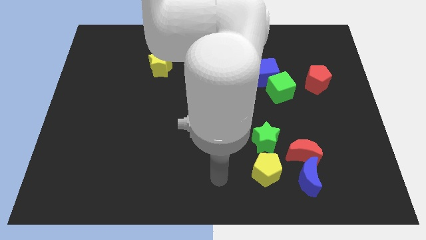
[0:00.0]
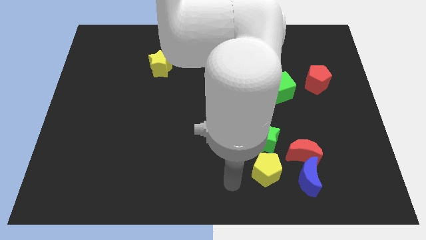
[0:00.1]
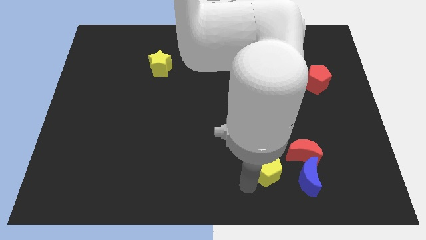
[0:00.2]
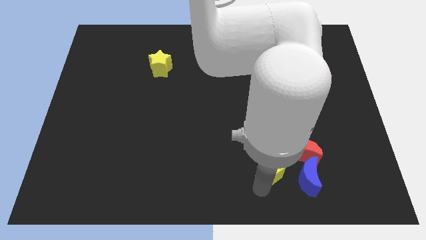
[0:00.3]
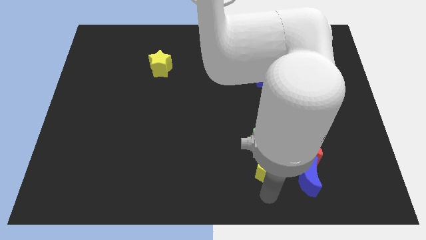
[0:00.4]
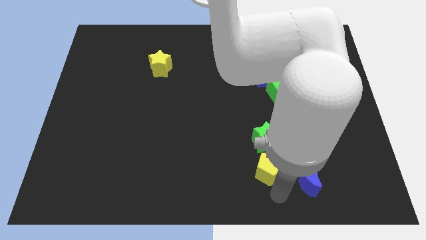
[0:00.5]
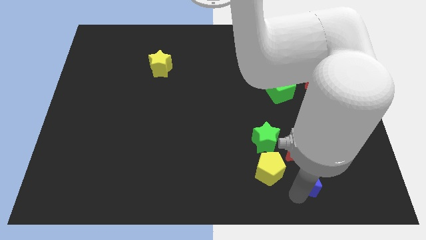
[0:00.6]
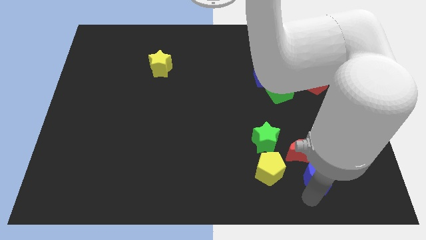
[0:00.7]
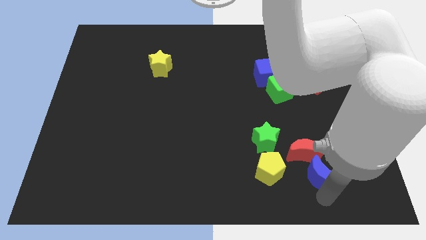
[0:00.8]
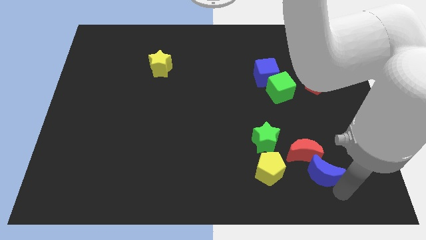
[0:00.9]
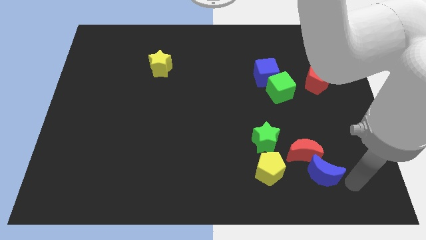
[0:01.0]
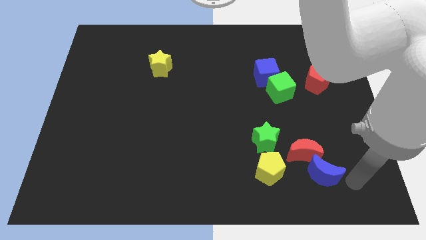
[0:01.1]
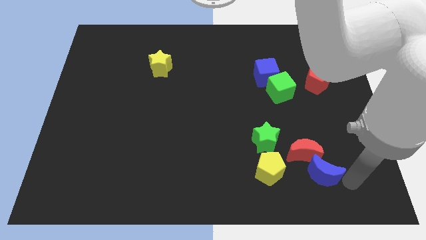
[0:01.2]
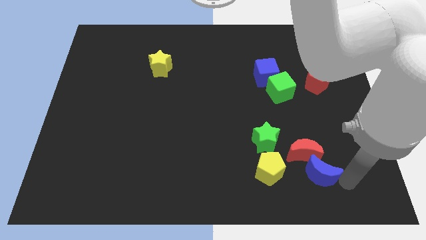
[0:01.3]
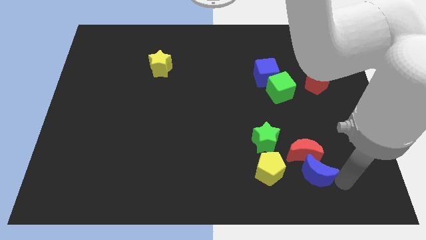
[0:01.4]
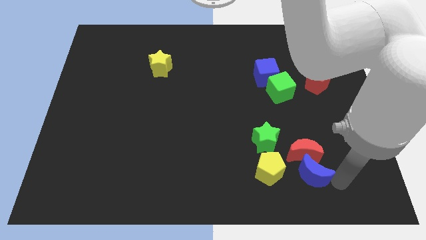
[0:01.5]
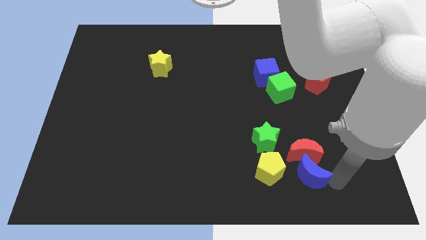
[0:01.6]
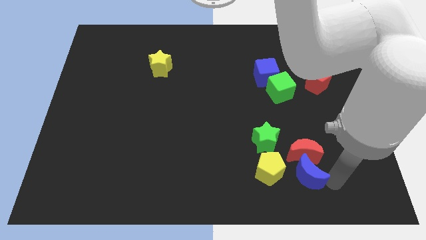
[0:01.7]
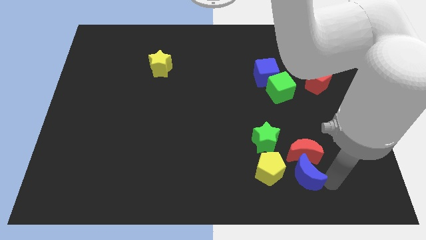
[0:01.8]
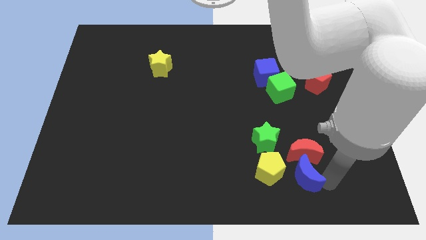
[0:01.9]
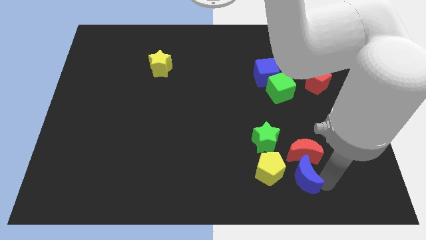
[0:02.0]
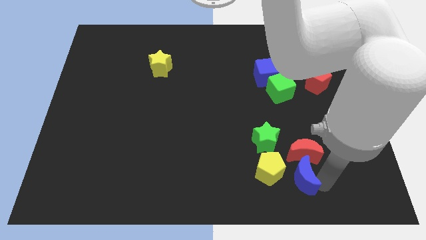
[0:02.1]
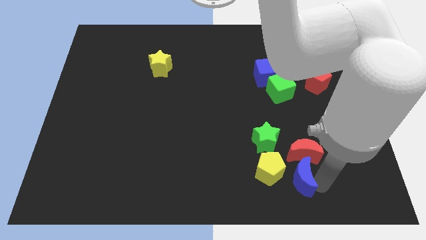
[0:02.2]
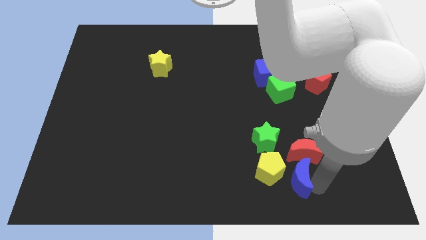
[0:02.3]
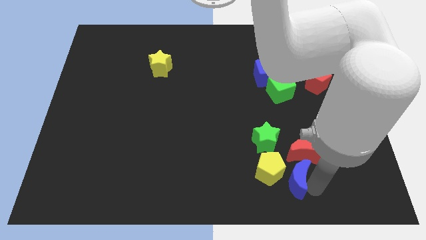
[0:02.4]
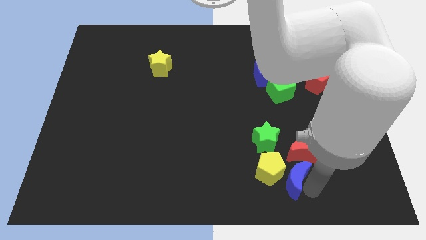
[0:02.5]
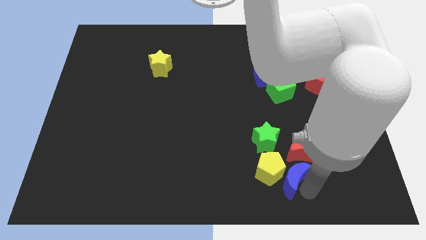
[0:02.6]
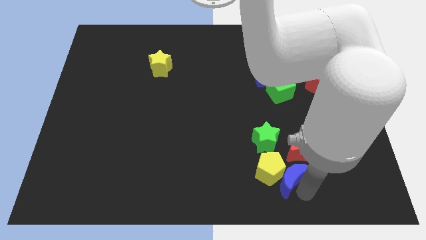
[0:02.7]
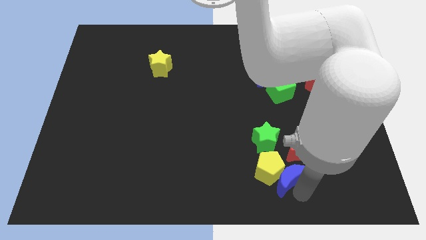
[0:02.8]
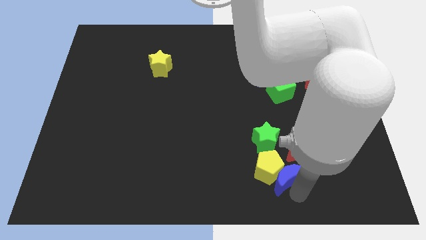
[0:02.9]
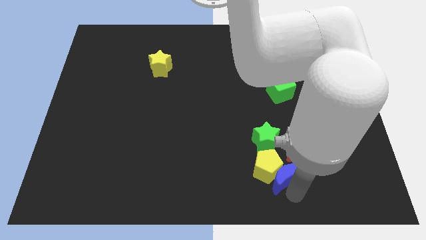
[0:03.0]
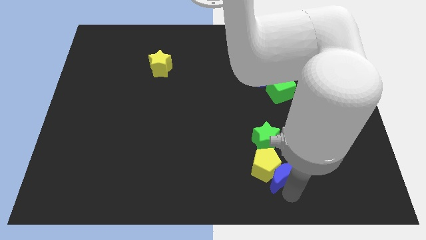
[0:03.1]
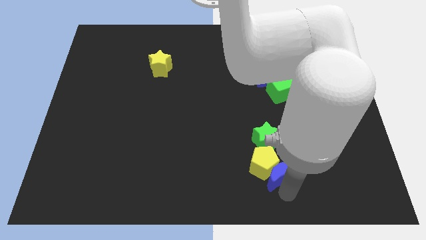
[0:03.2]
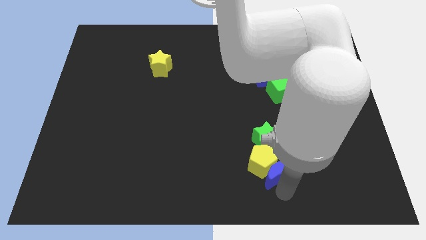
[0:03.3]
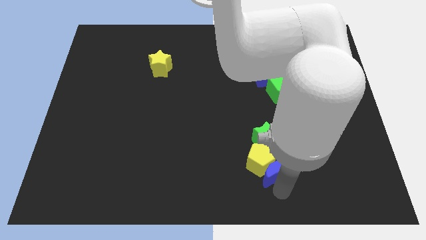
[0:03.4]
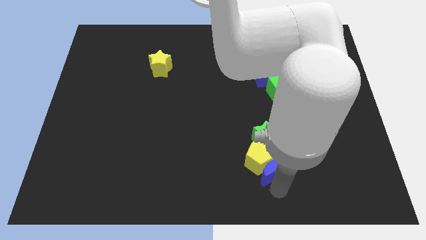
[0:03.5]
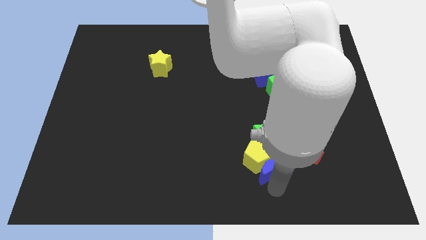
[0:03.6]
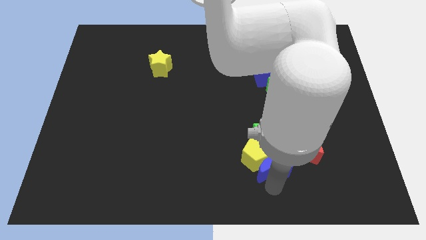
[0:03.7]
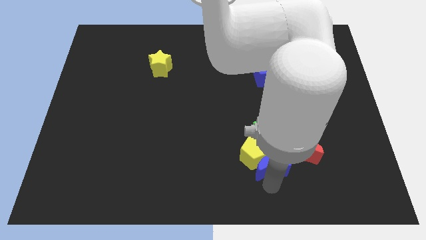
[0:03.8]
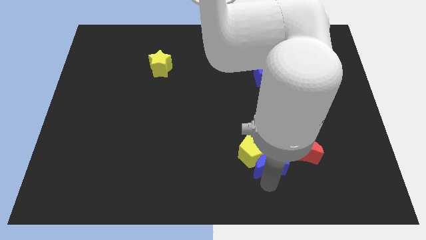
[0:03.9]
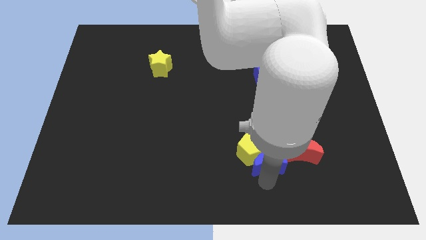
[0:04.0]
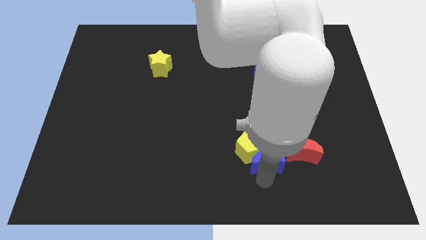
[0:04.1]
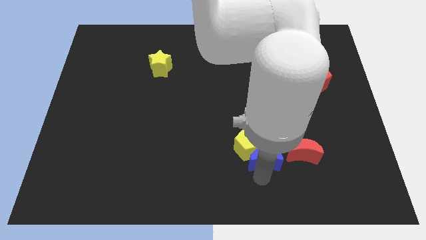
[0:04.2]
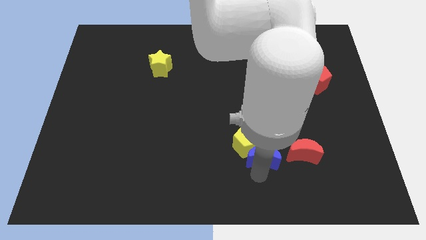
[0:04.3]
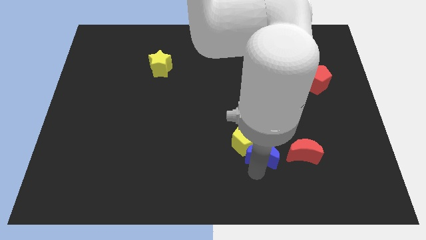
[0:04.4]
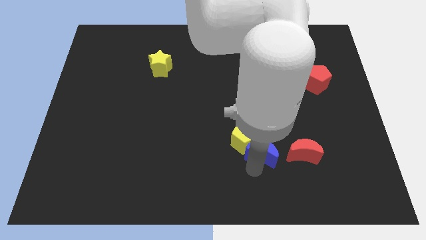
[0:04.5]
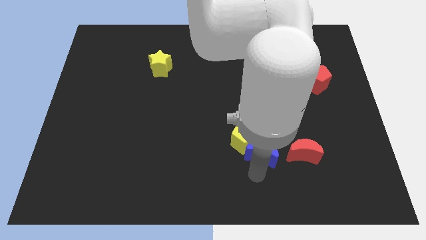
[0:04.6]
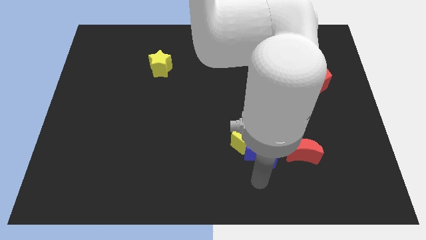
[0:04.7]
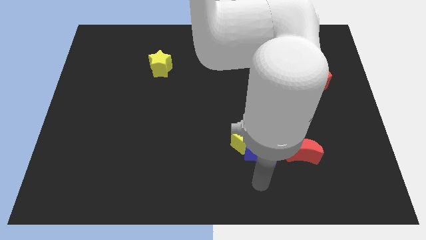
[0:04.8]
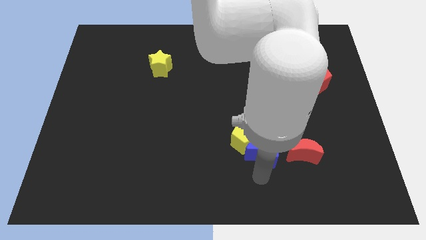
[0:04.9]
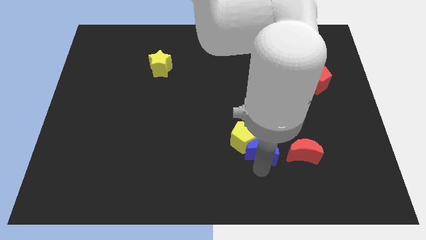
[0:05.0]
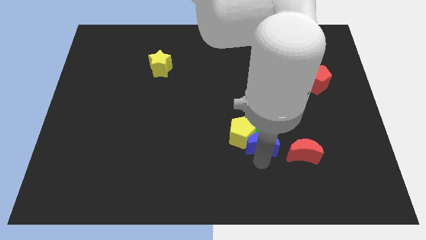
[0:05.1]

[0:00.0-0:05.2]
push the blue moon close to the green star

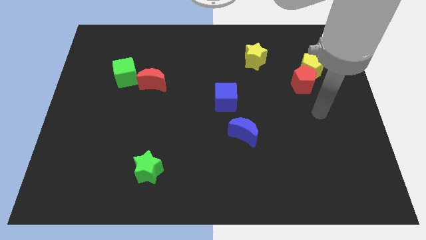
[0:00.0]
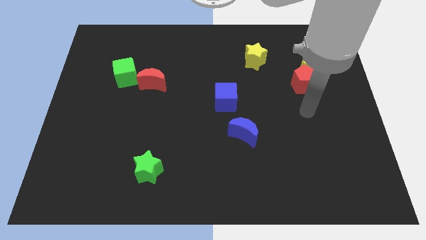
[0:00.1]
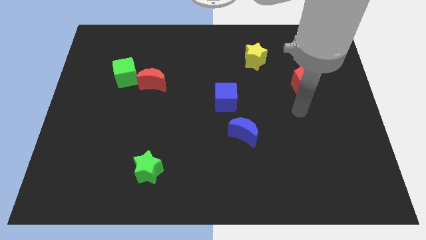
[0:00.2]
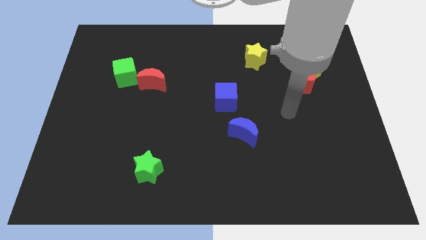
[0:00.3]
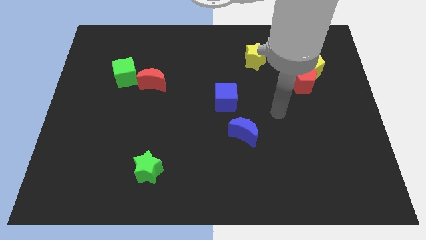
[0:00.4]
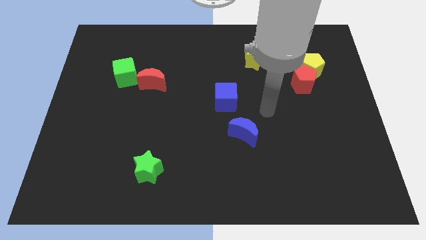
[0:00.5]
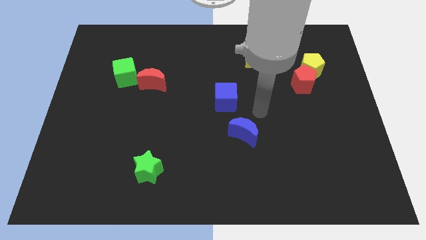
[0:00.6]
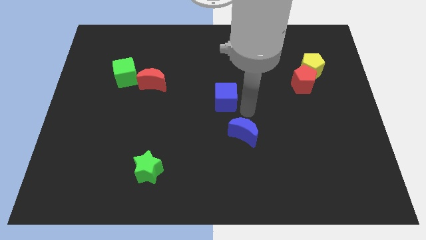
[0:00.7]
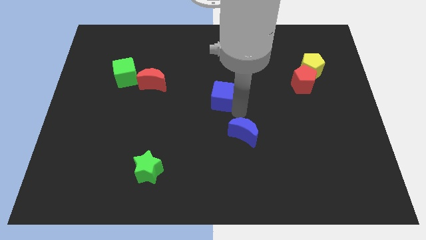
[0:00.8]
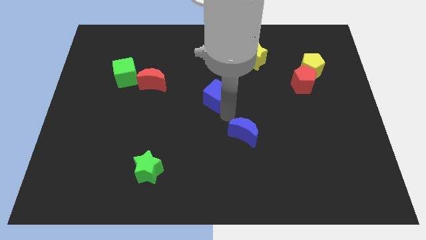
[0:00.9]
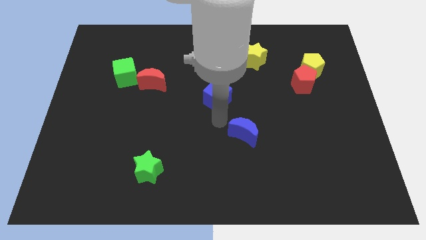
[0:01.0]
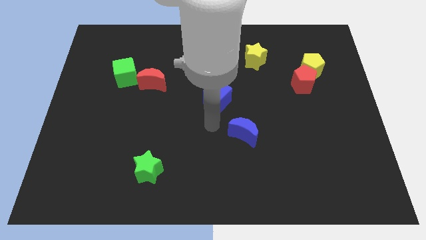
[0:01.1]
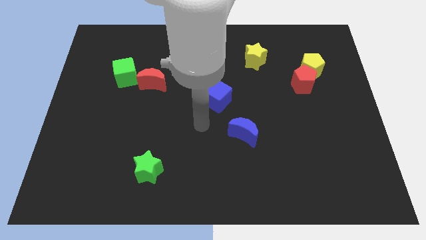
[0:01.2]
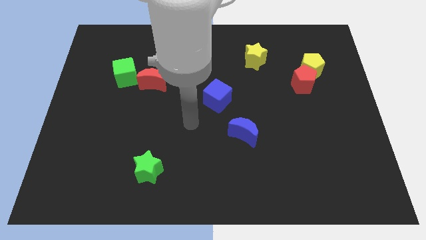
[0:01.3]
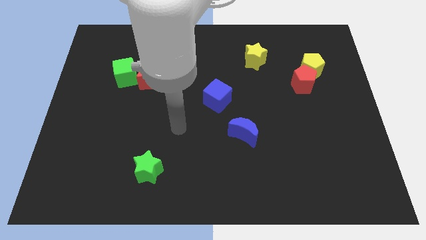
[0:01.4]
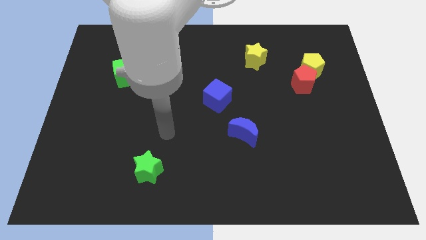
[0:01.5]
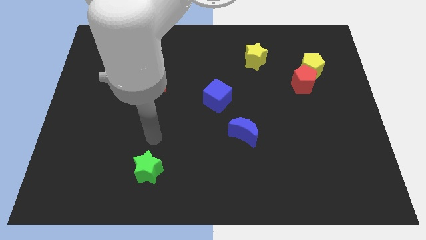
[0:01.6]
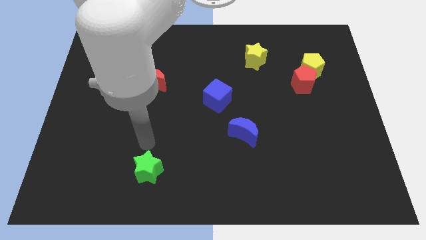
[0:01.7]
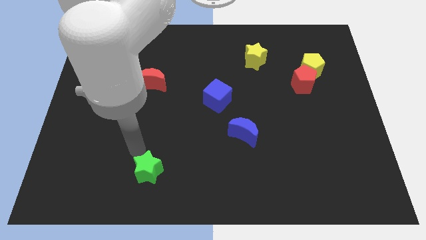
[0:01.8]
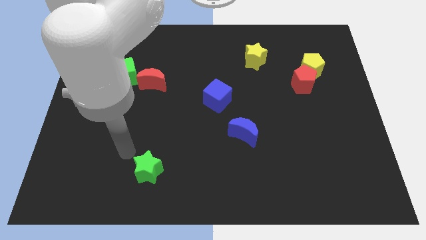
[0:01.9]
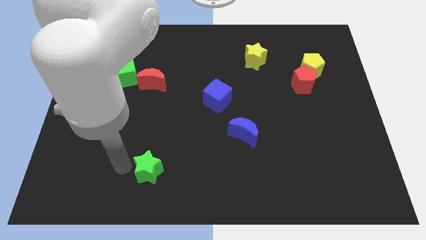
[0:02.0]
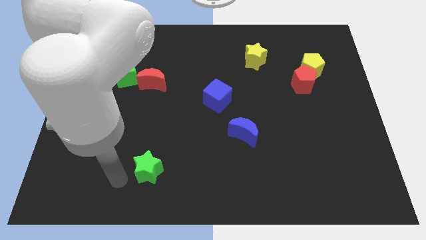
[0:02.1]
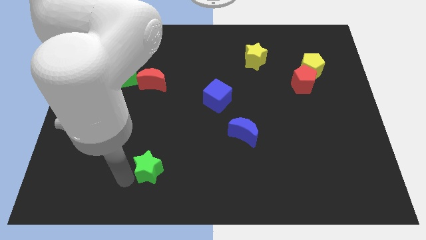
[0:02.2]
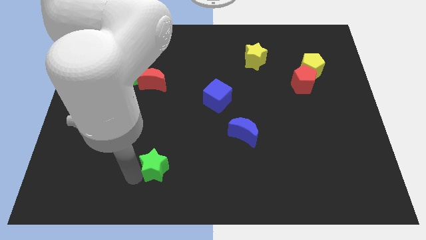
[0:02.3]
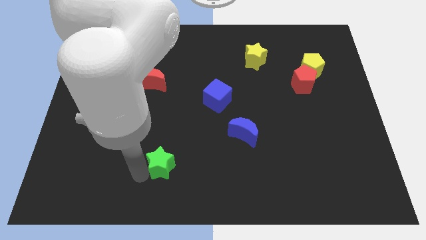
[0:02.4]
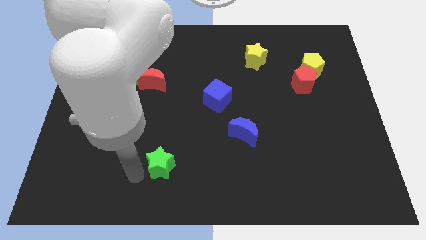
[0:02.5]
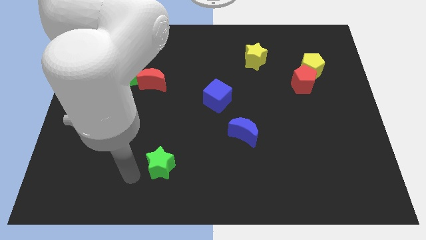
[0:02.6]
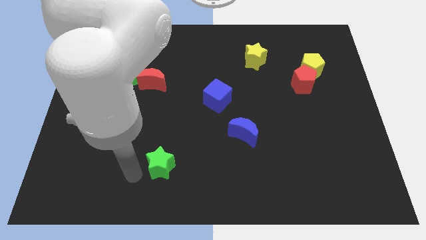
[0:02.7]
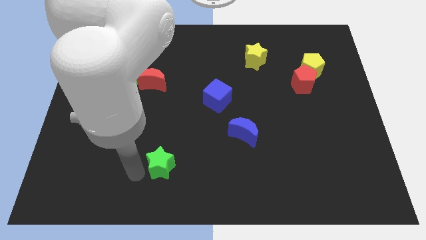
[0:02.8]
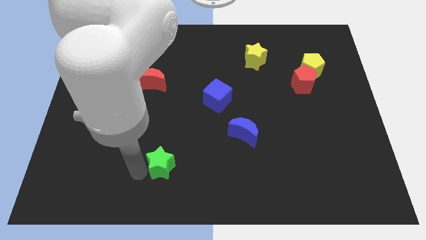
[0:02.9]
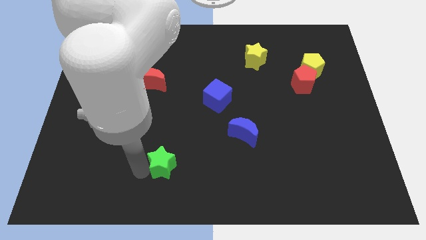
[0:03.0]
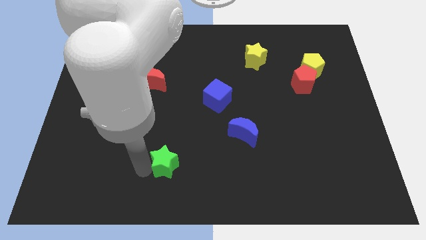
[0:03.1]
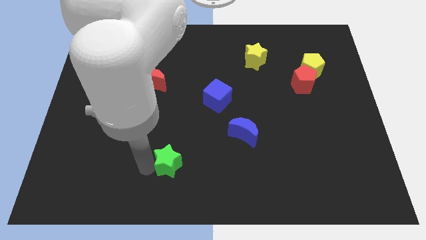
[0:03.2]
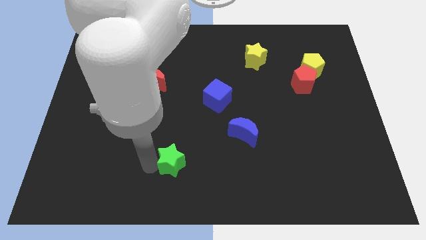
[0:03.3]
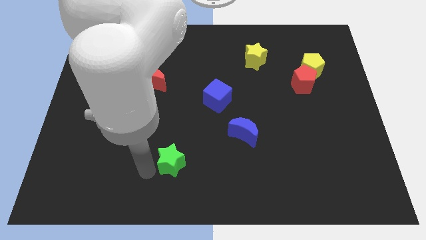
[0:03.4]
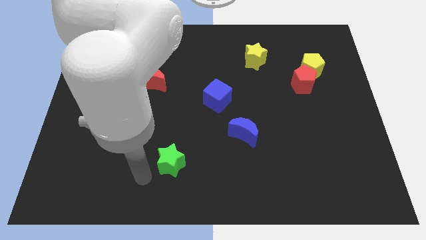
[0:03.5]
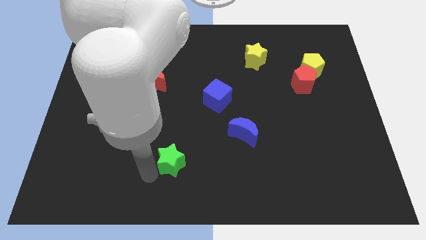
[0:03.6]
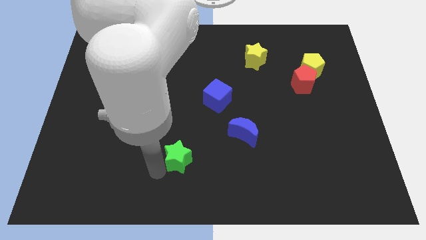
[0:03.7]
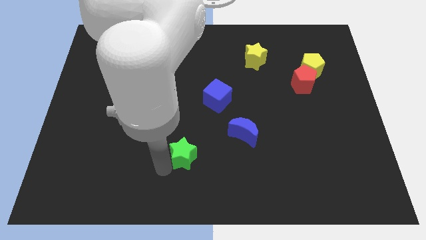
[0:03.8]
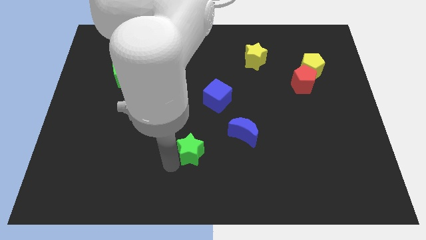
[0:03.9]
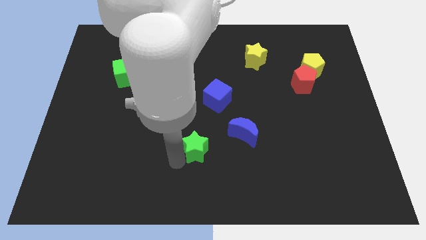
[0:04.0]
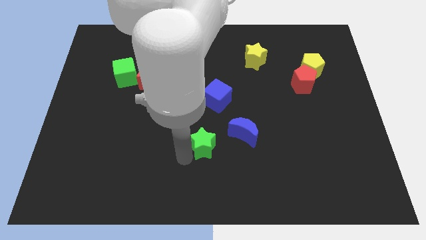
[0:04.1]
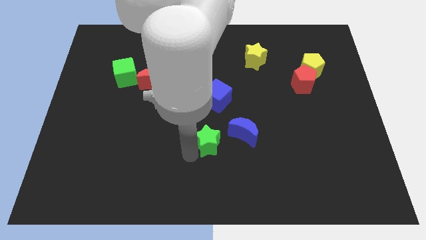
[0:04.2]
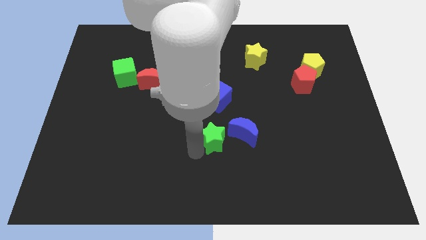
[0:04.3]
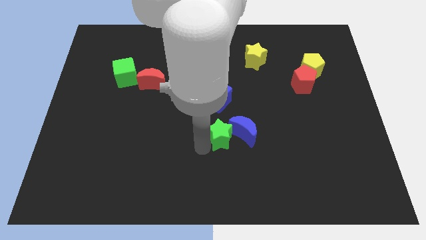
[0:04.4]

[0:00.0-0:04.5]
put the green star close to the blue moon
